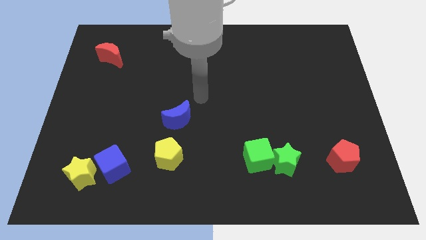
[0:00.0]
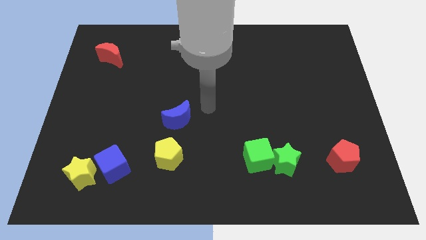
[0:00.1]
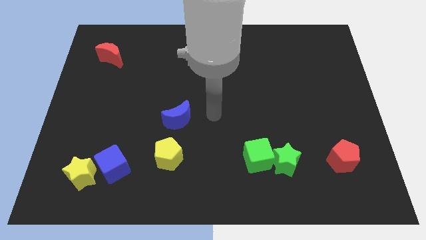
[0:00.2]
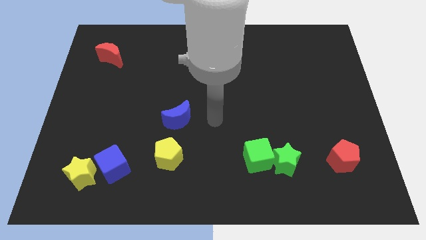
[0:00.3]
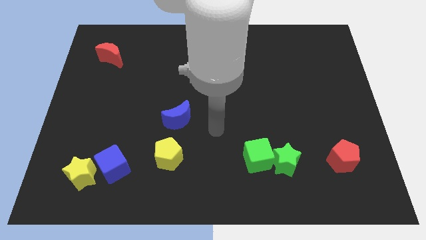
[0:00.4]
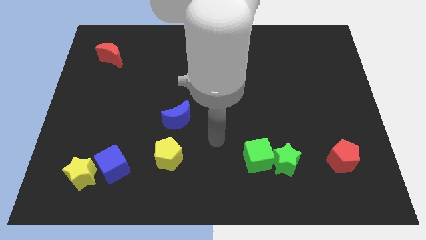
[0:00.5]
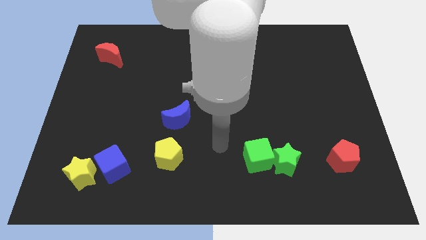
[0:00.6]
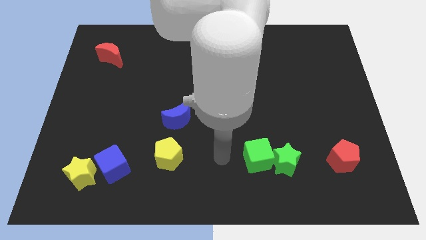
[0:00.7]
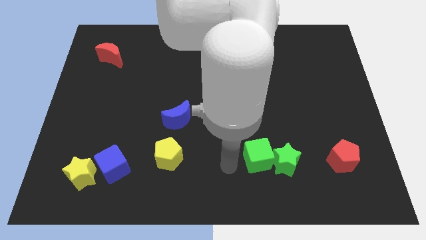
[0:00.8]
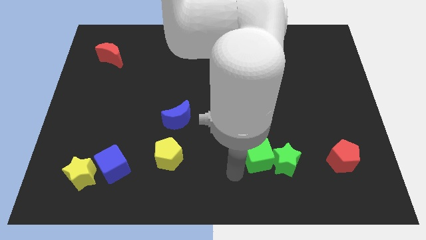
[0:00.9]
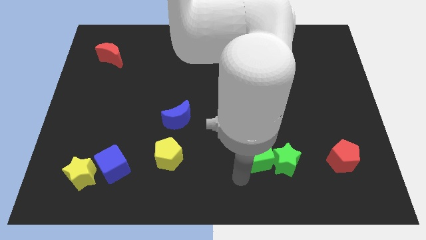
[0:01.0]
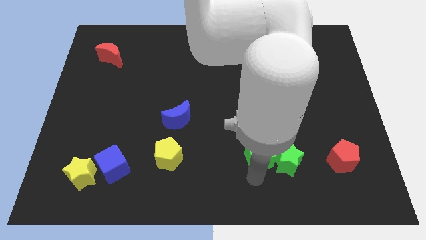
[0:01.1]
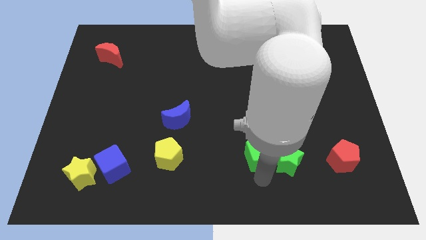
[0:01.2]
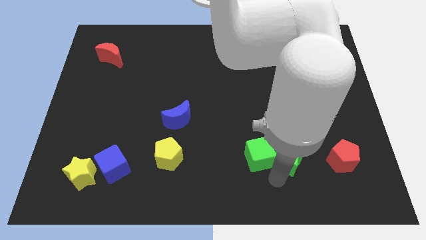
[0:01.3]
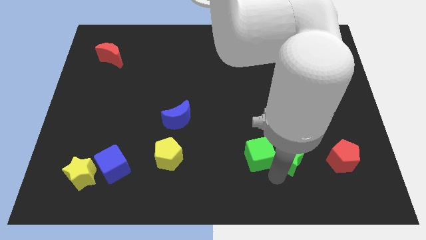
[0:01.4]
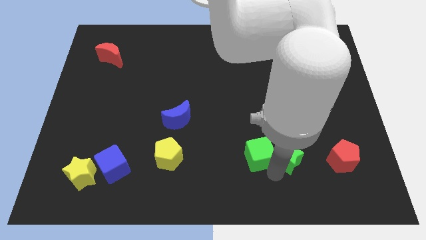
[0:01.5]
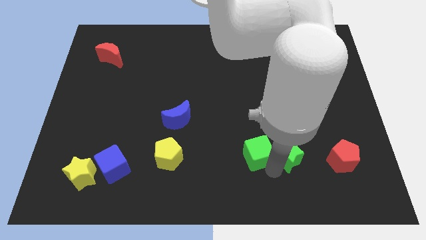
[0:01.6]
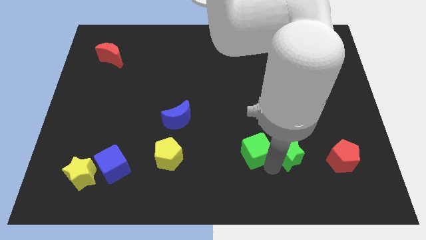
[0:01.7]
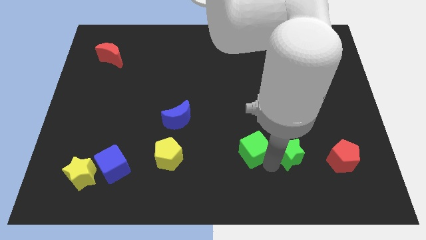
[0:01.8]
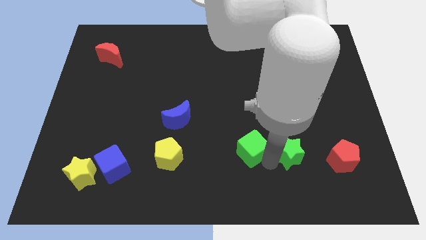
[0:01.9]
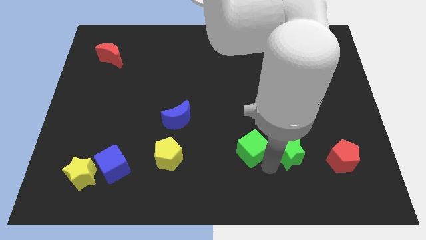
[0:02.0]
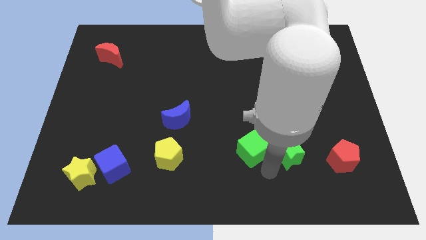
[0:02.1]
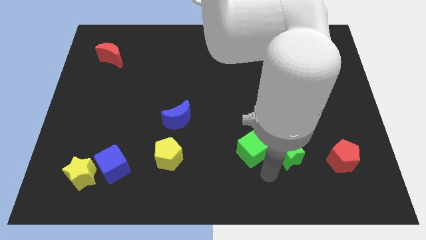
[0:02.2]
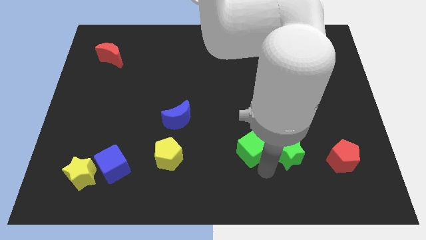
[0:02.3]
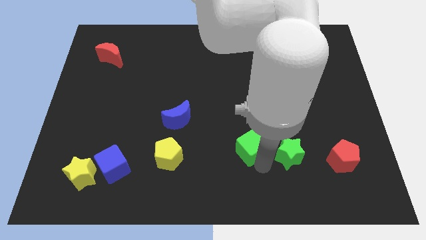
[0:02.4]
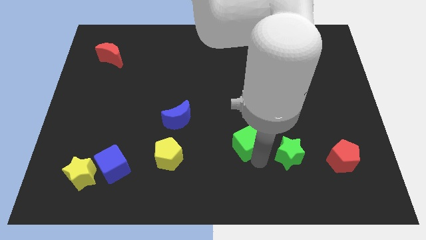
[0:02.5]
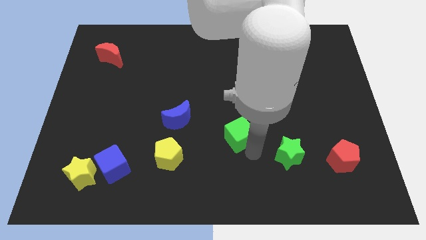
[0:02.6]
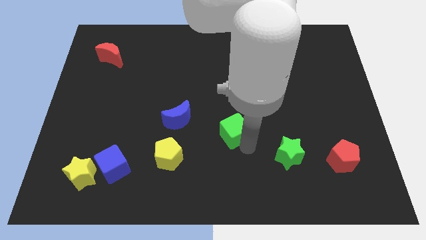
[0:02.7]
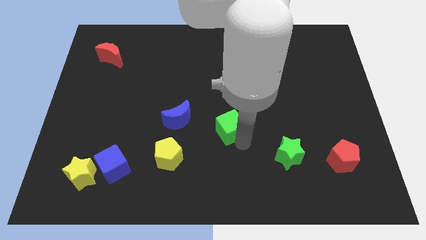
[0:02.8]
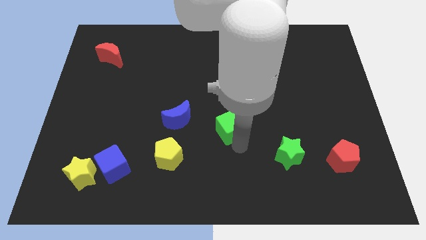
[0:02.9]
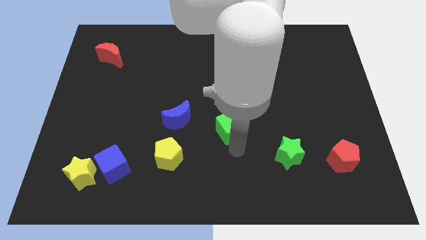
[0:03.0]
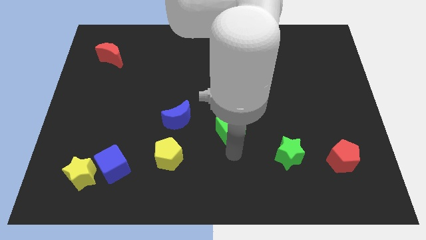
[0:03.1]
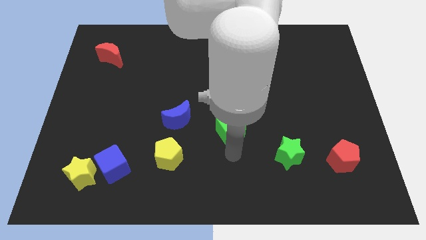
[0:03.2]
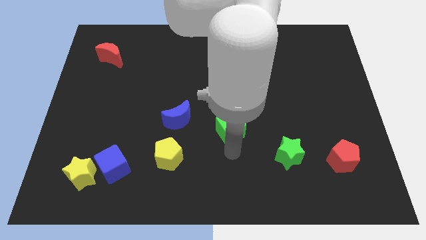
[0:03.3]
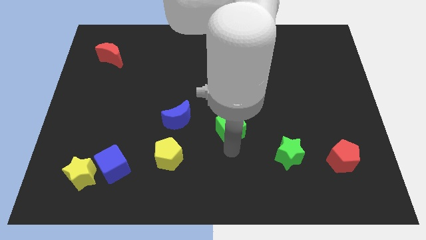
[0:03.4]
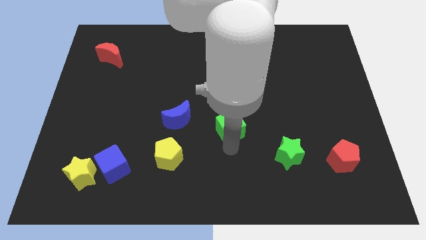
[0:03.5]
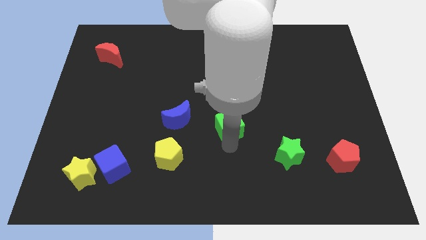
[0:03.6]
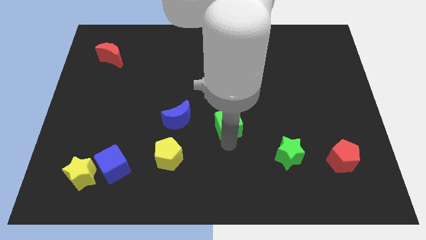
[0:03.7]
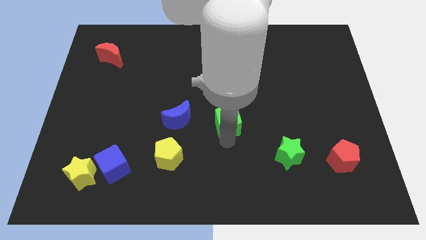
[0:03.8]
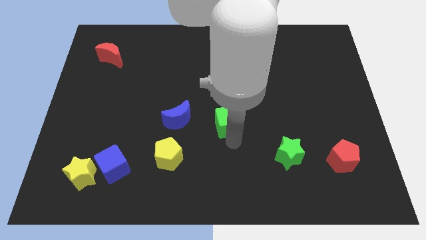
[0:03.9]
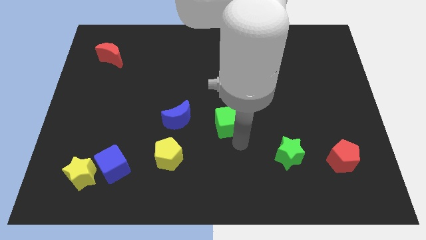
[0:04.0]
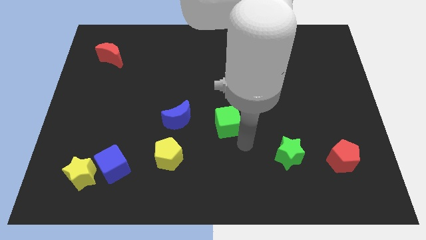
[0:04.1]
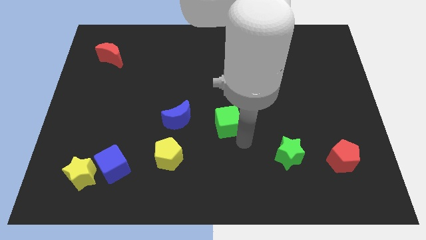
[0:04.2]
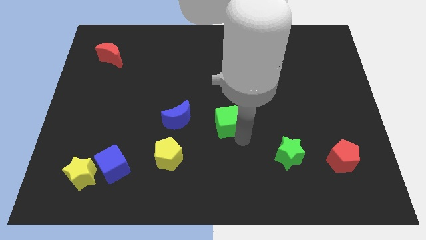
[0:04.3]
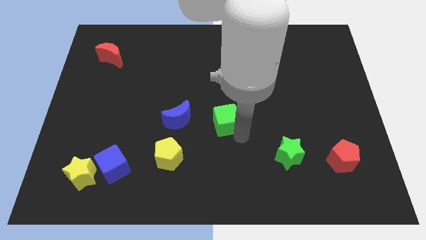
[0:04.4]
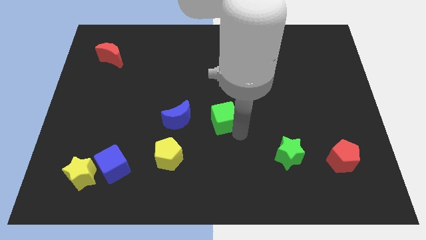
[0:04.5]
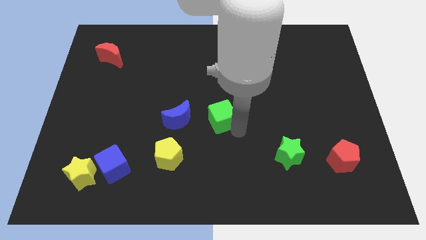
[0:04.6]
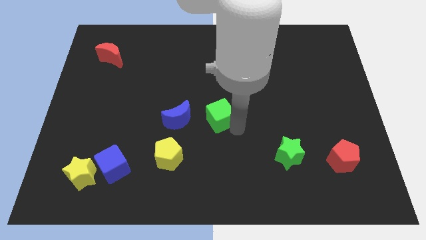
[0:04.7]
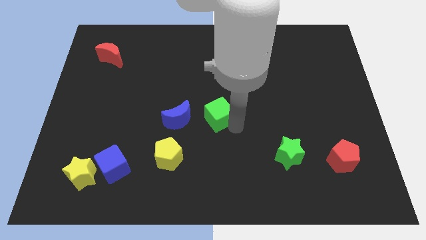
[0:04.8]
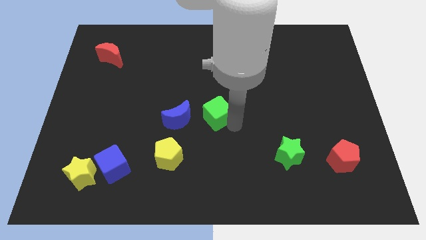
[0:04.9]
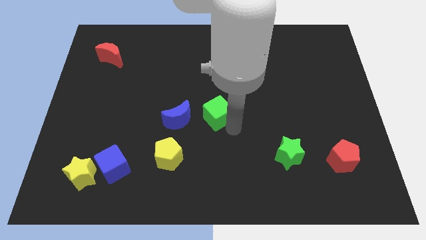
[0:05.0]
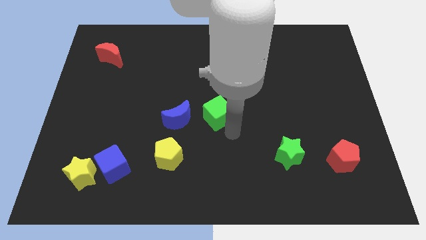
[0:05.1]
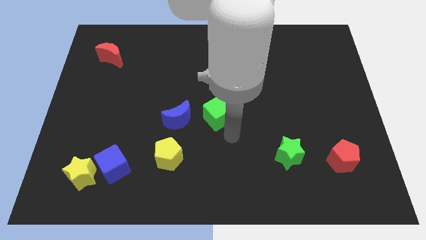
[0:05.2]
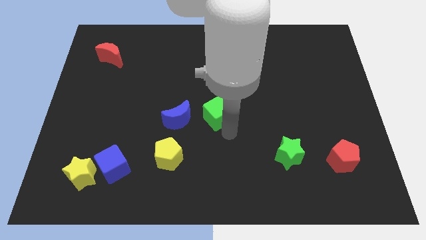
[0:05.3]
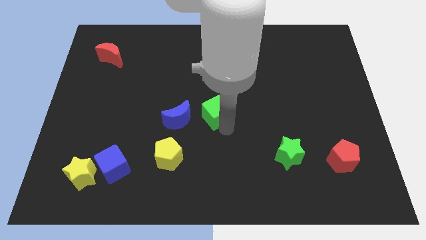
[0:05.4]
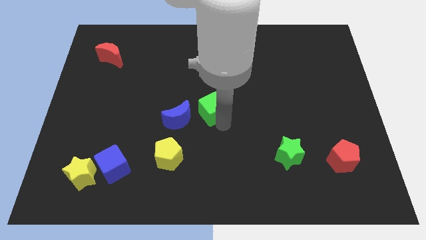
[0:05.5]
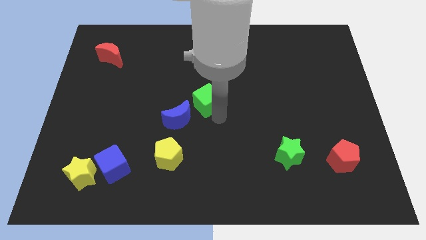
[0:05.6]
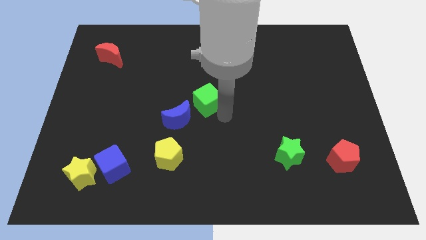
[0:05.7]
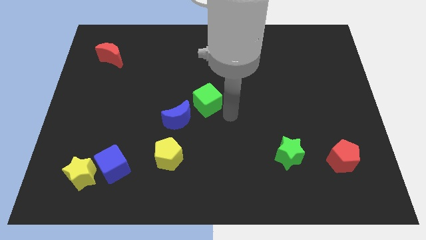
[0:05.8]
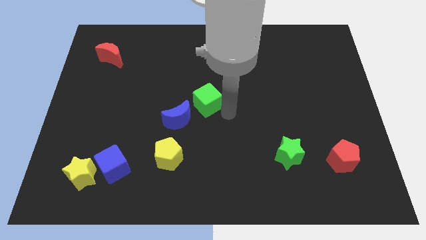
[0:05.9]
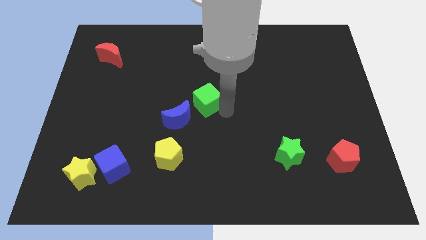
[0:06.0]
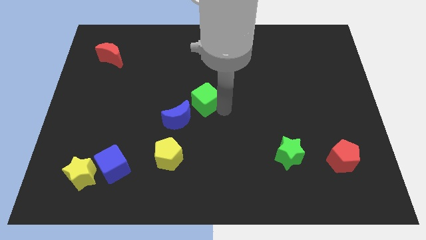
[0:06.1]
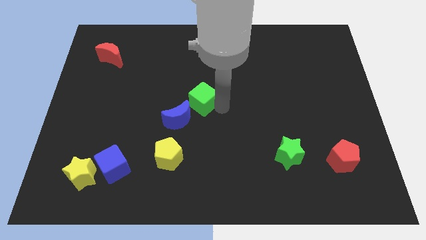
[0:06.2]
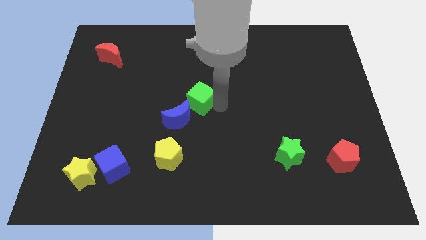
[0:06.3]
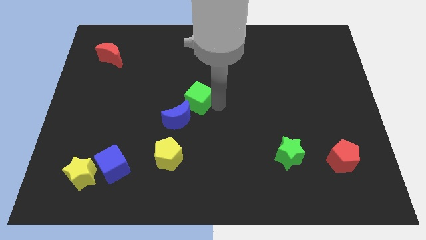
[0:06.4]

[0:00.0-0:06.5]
move the green cube upwards and to the left diagonally

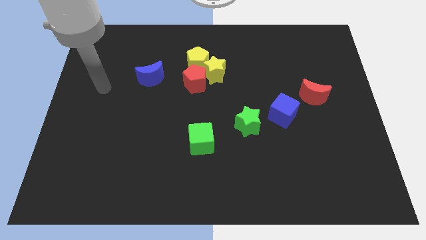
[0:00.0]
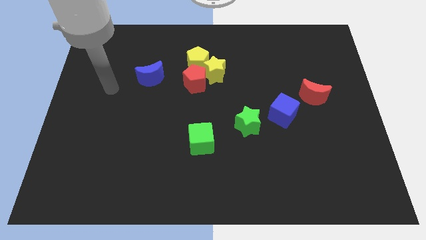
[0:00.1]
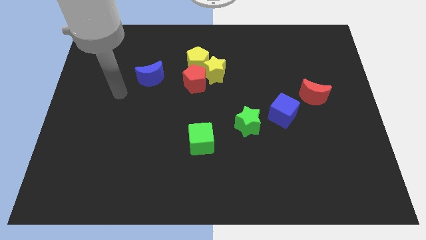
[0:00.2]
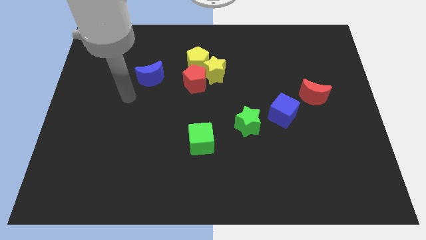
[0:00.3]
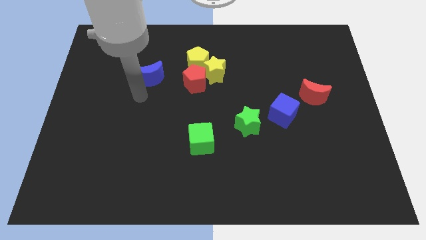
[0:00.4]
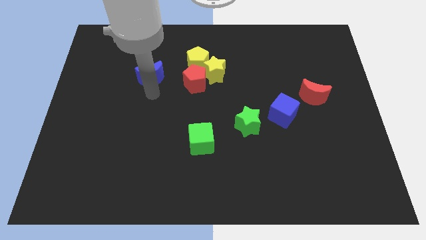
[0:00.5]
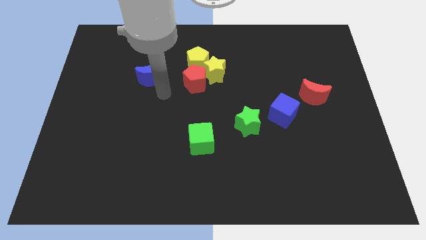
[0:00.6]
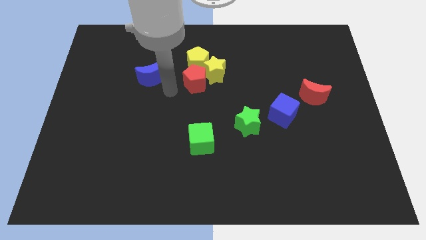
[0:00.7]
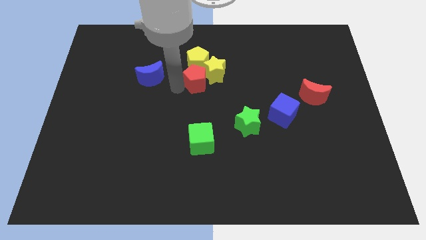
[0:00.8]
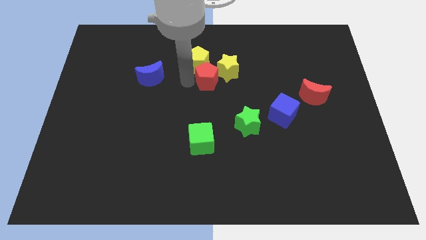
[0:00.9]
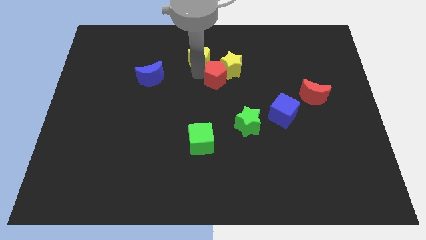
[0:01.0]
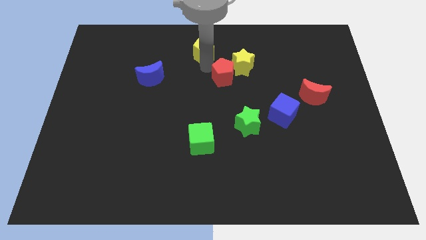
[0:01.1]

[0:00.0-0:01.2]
slide the yellow star to the right a little bit

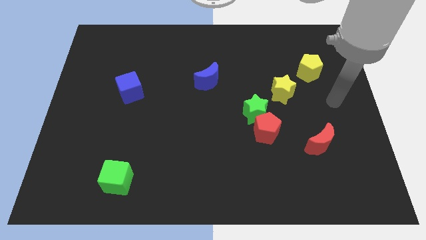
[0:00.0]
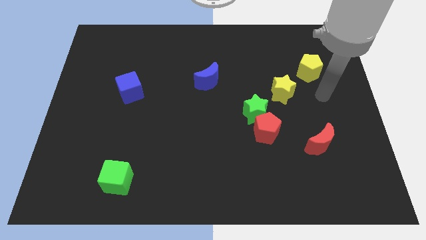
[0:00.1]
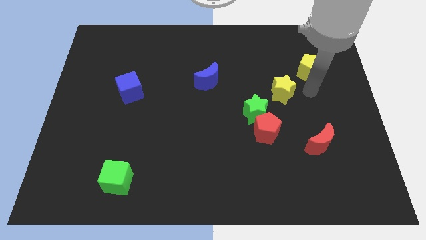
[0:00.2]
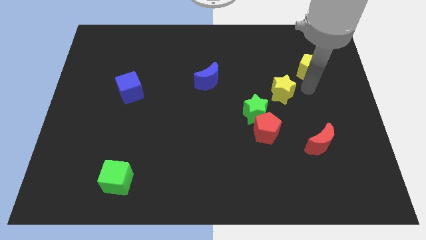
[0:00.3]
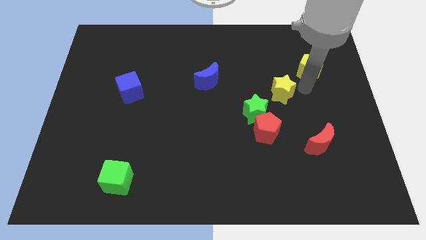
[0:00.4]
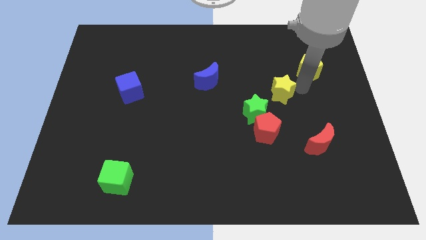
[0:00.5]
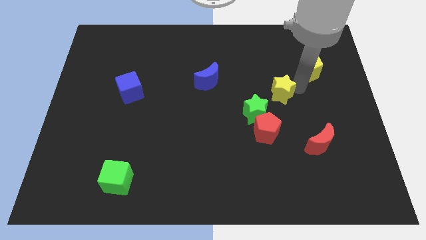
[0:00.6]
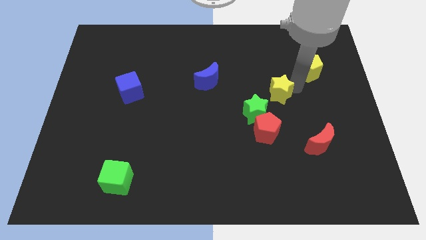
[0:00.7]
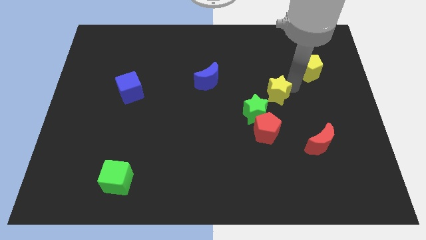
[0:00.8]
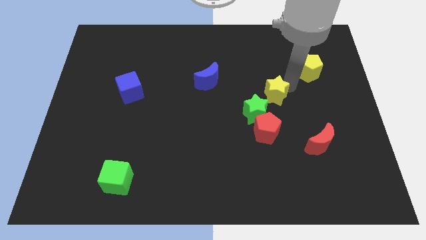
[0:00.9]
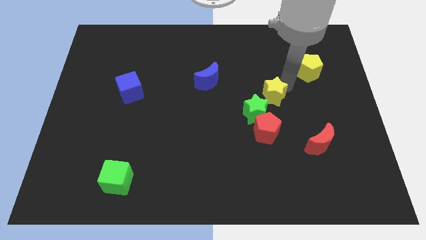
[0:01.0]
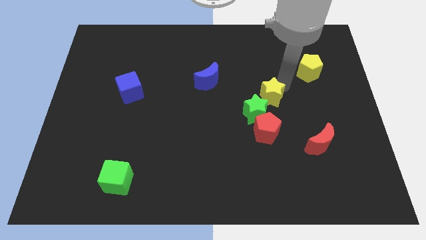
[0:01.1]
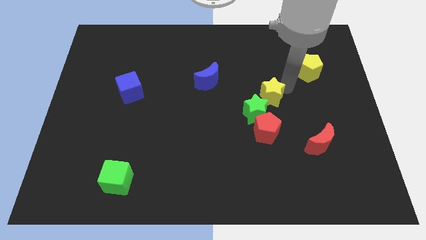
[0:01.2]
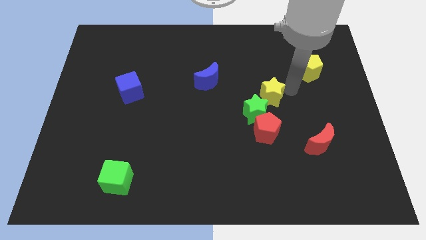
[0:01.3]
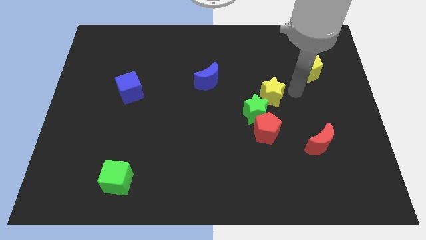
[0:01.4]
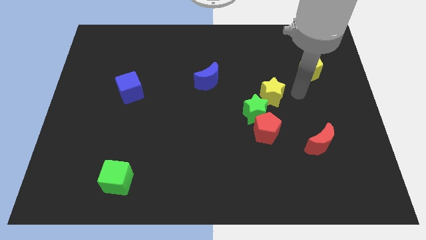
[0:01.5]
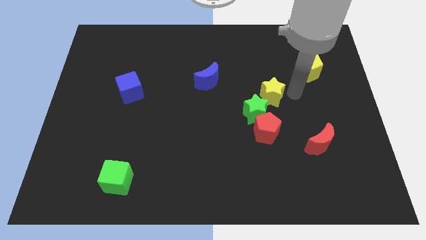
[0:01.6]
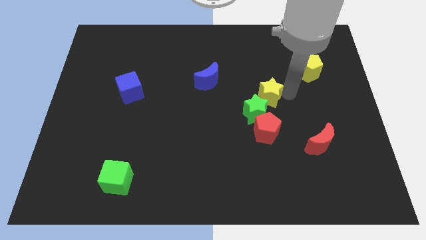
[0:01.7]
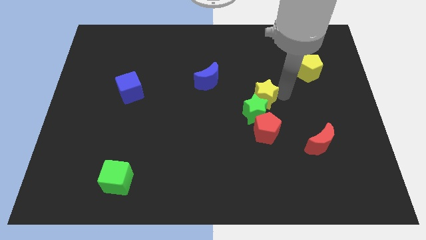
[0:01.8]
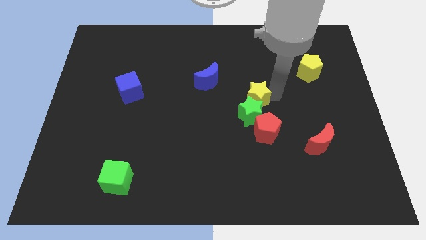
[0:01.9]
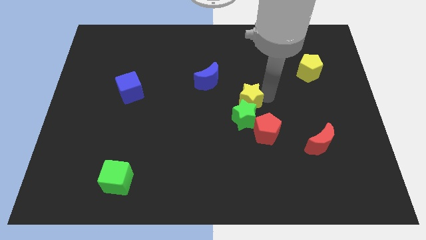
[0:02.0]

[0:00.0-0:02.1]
move the yellow star a little downwards and left
